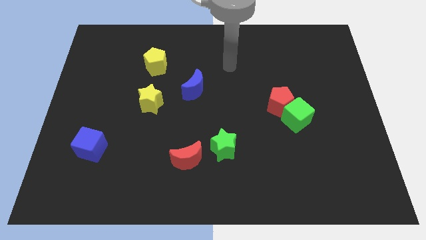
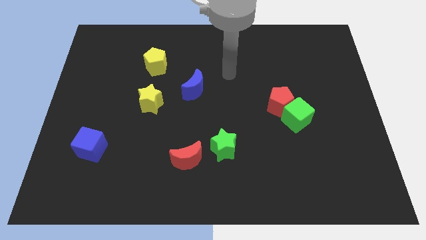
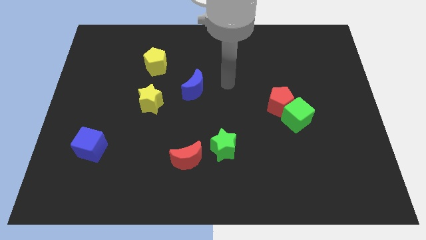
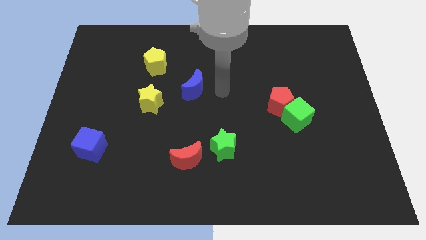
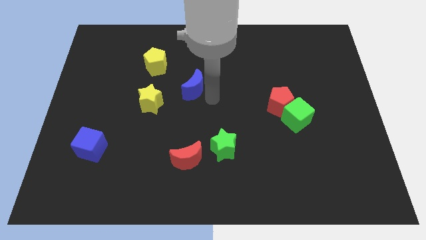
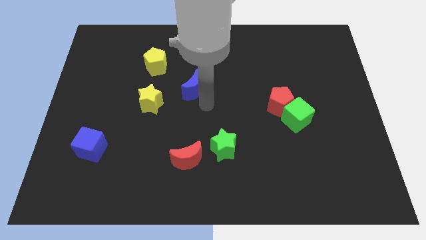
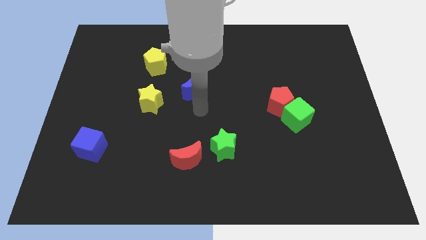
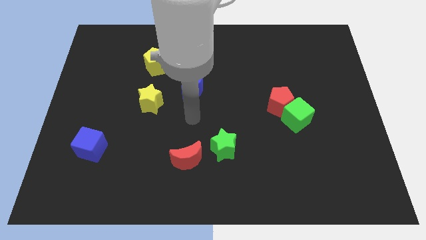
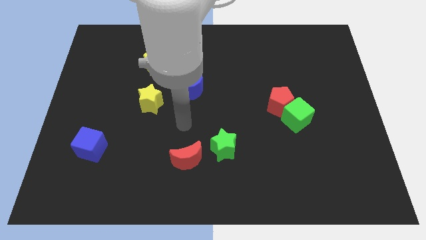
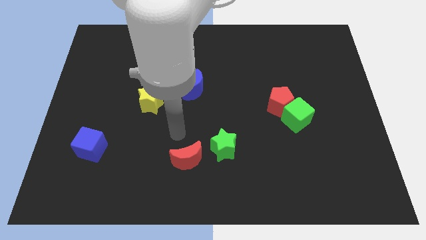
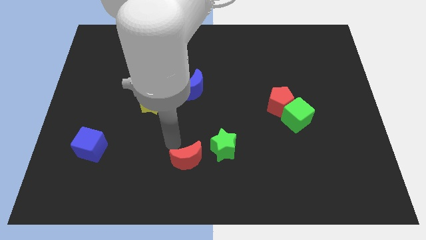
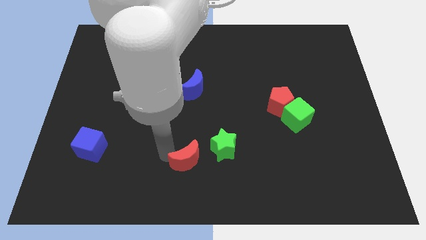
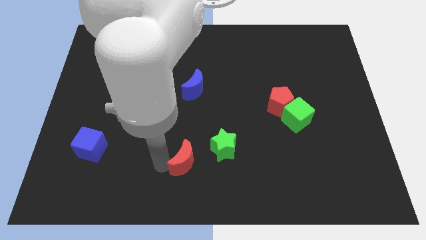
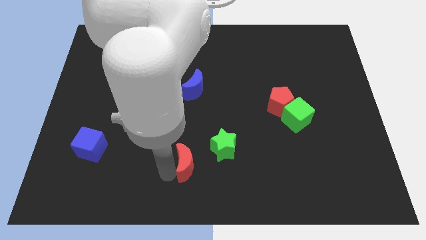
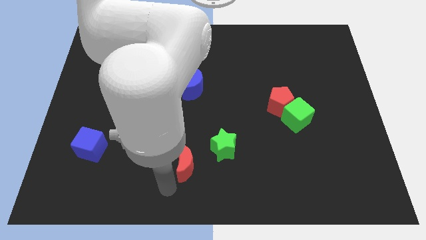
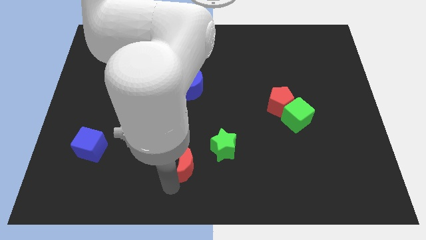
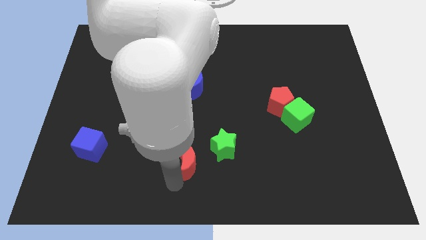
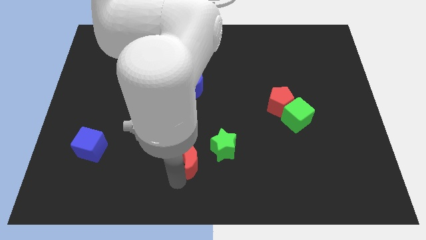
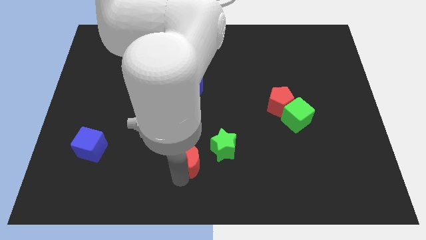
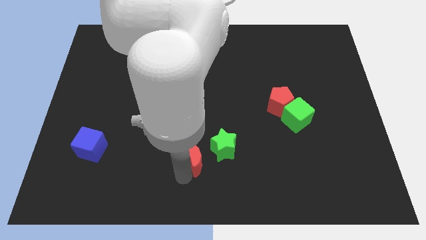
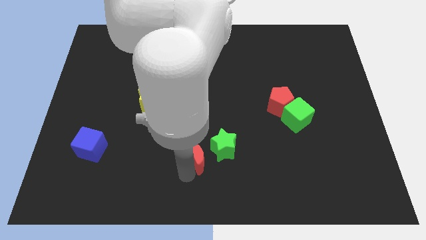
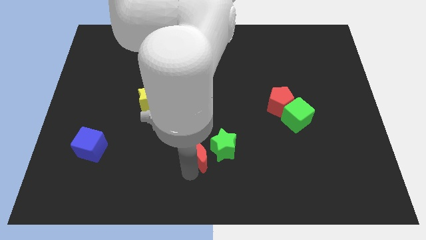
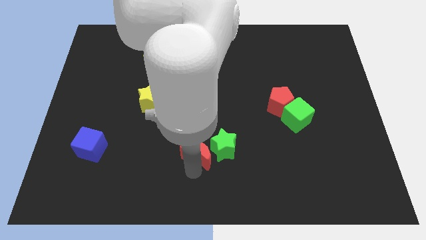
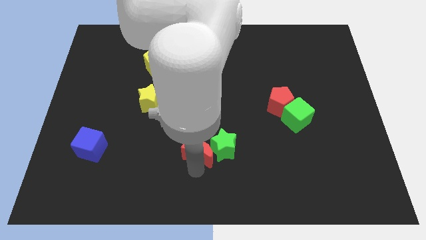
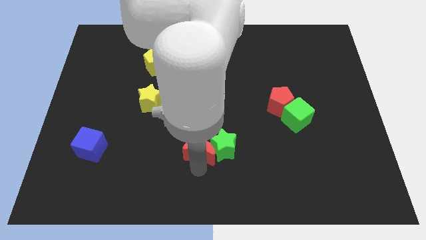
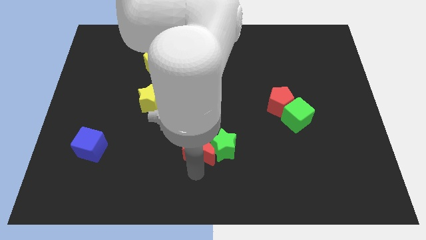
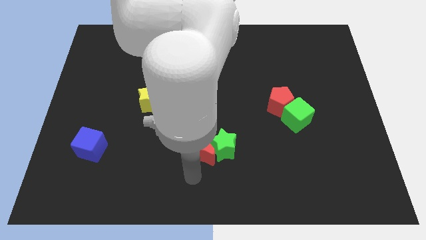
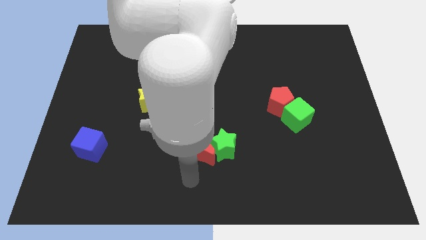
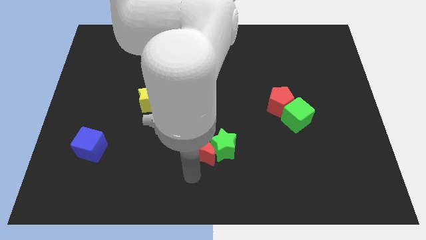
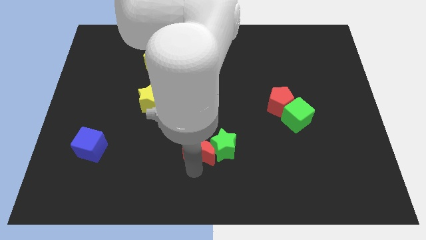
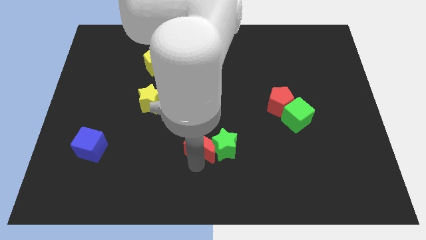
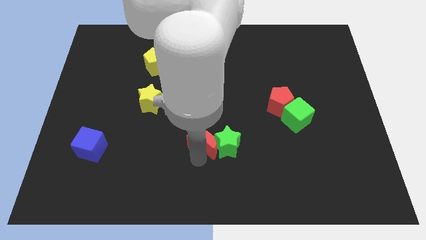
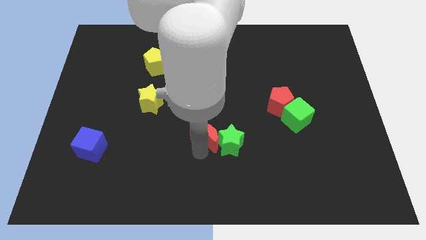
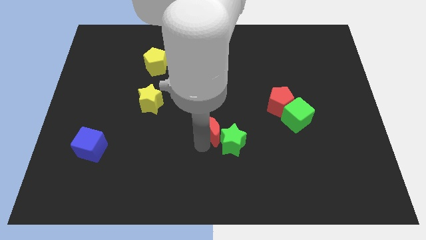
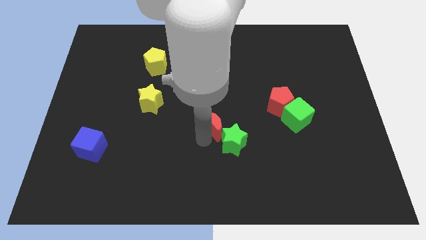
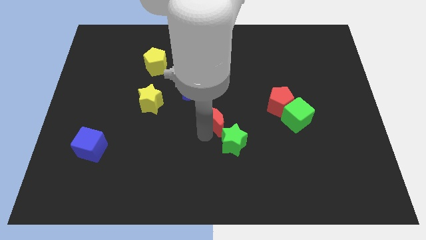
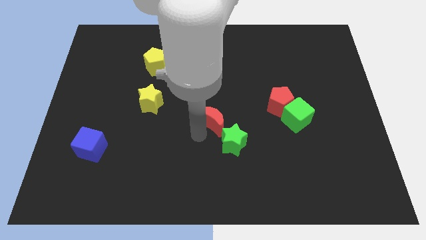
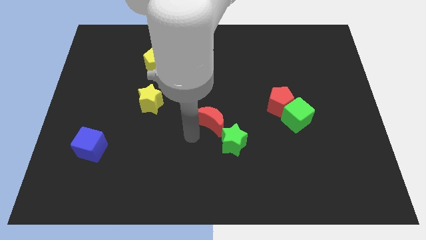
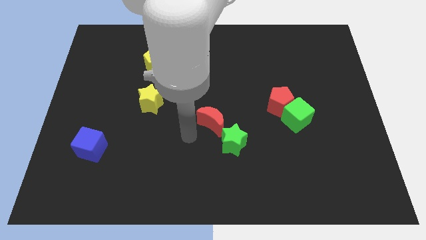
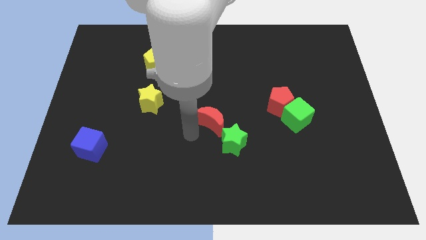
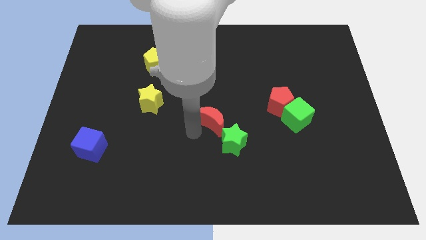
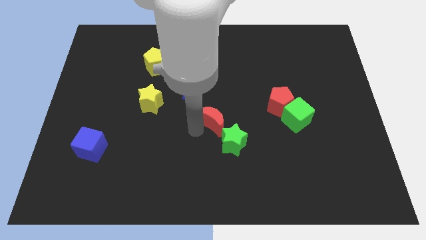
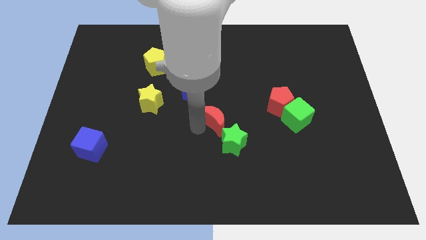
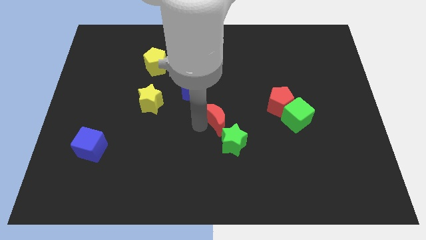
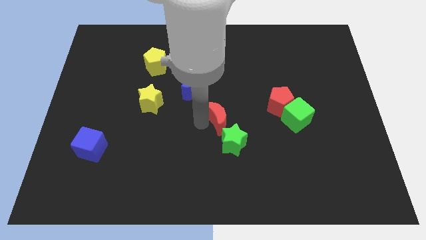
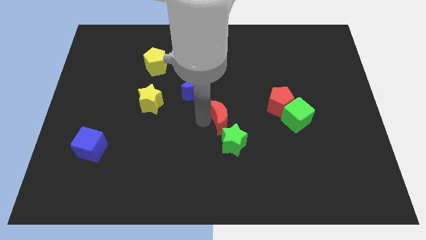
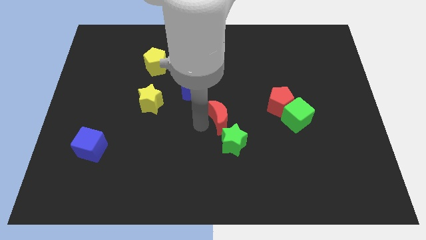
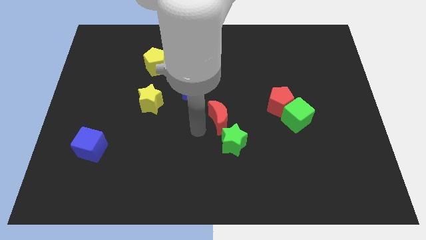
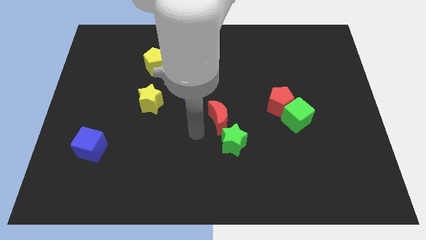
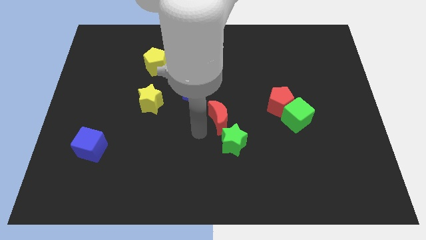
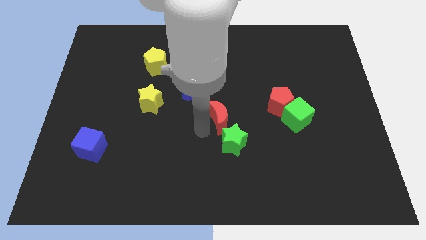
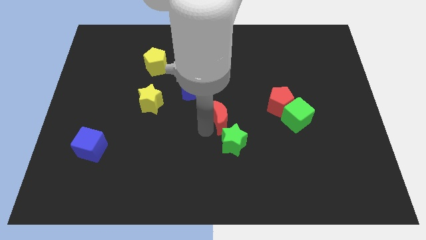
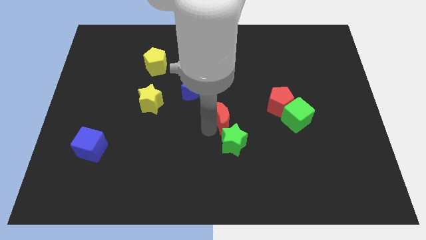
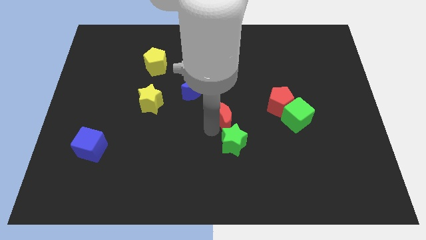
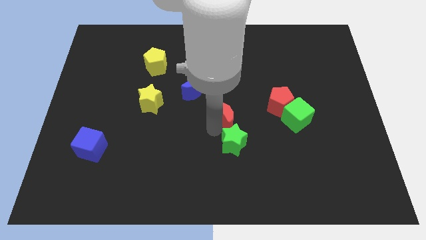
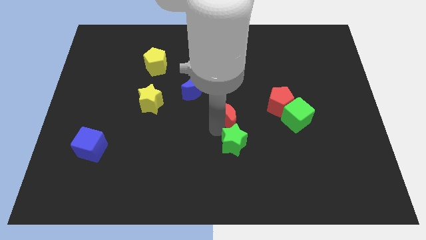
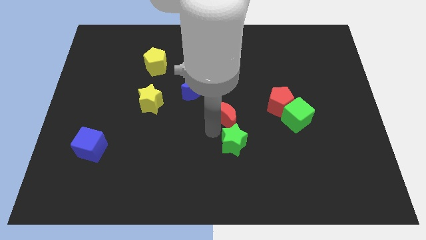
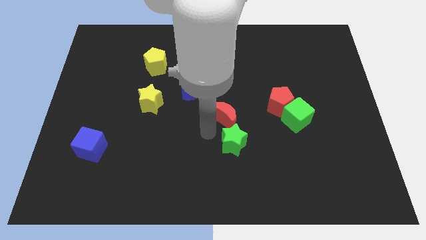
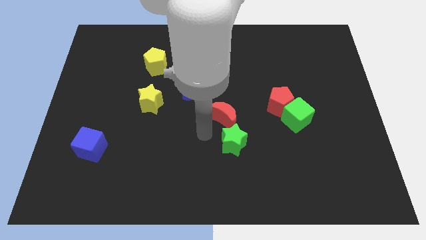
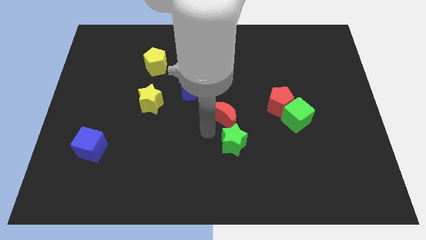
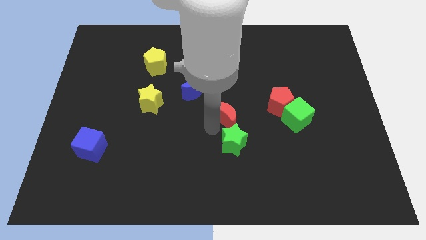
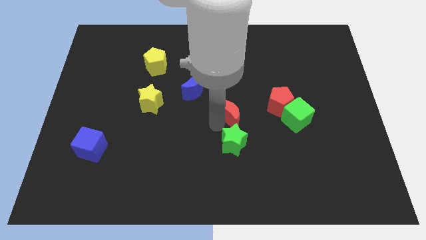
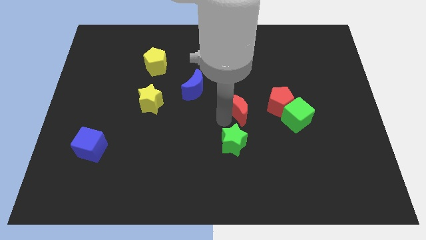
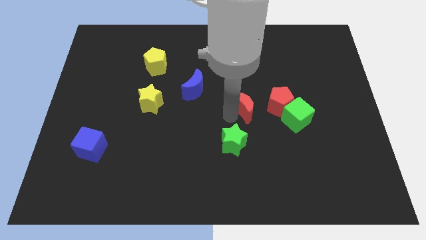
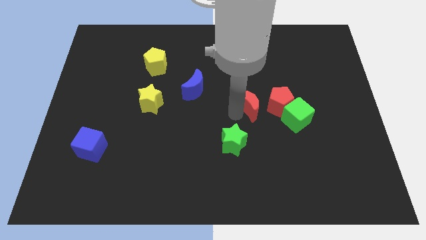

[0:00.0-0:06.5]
slide the red moon upwards and to the right diagonally

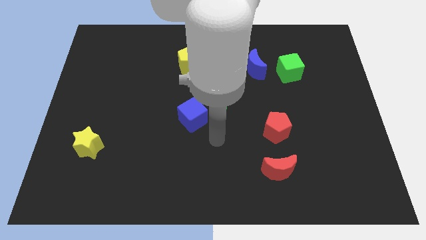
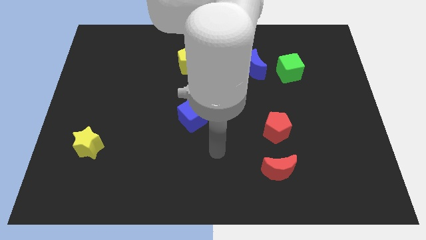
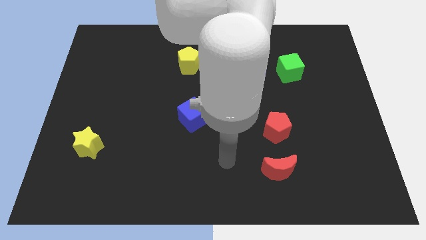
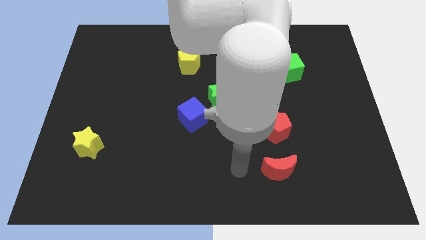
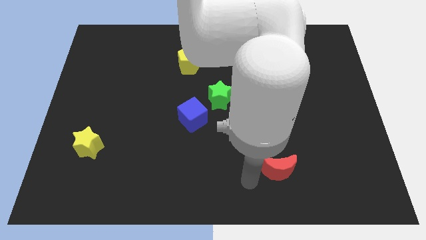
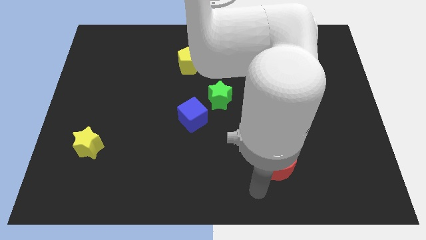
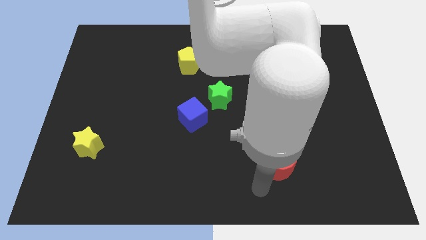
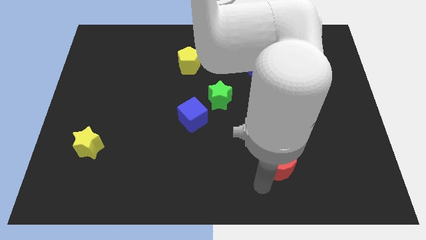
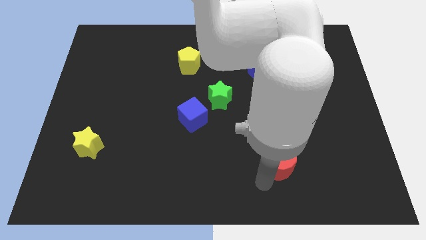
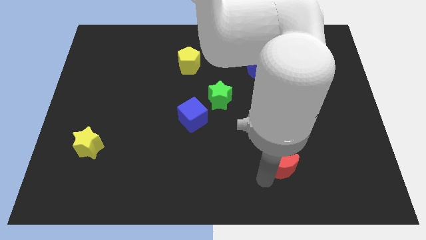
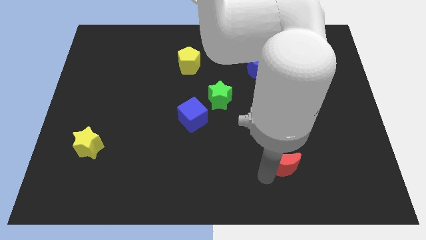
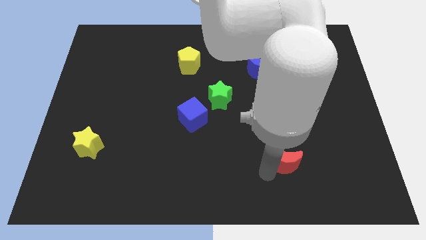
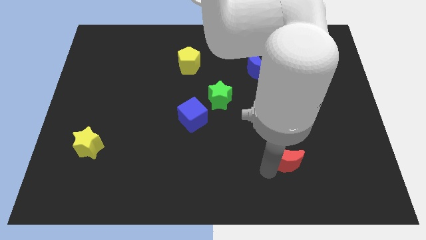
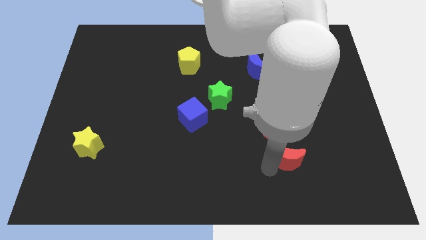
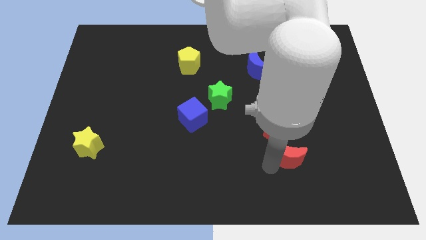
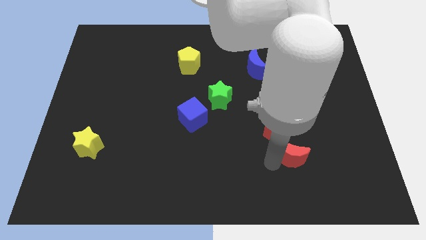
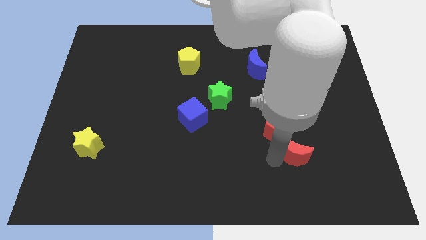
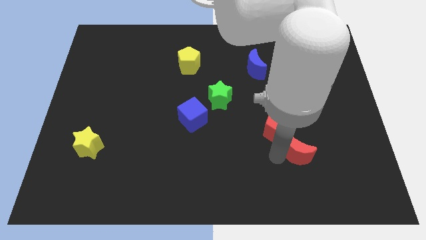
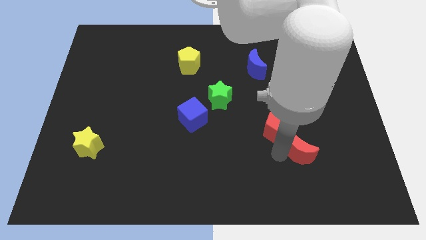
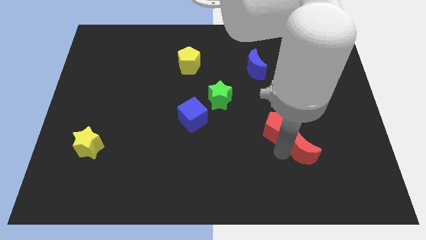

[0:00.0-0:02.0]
push the red moon diagonally upwards and to the right a little bit
